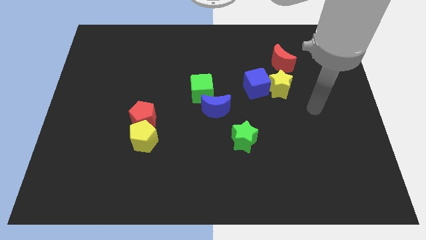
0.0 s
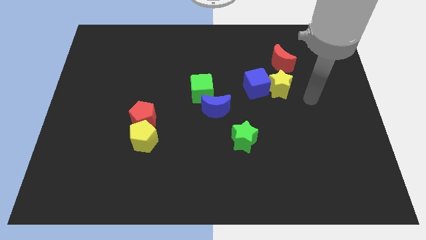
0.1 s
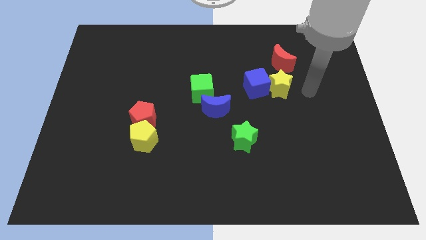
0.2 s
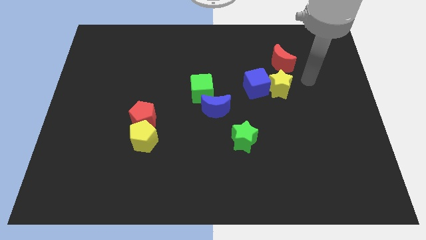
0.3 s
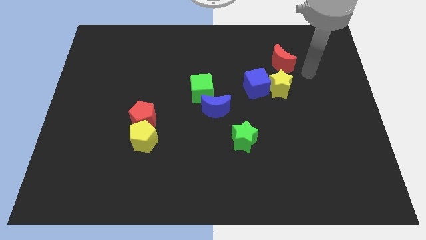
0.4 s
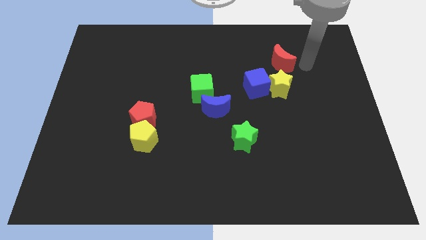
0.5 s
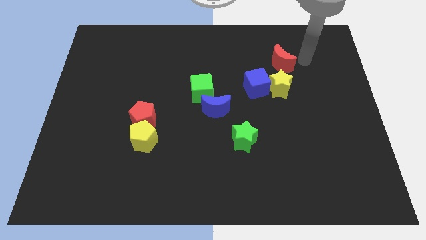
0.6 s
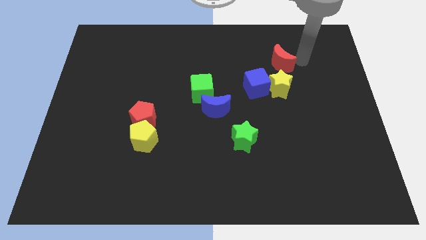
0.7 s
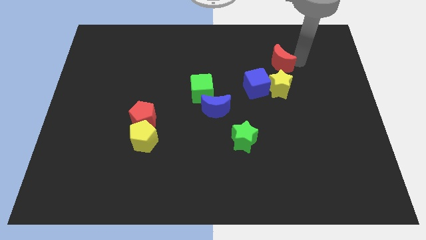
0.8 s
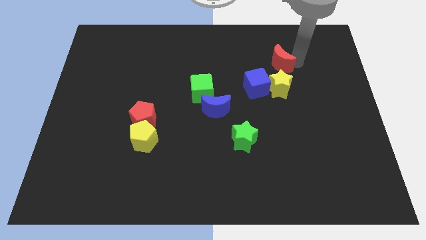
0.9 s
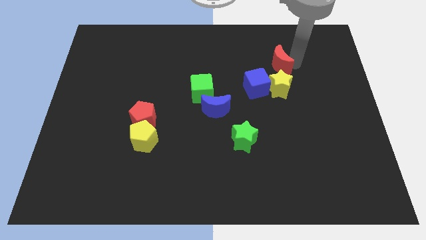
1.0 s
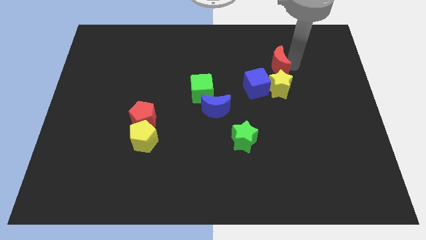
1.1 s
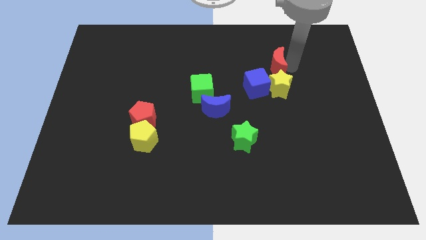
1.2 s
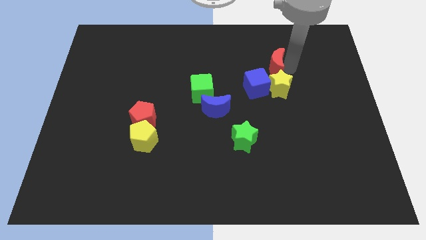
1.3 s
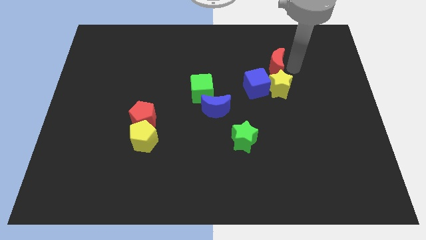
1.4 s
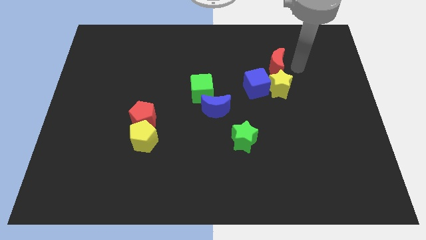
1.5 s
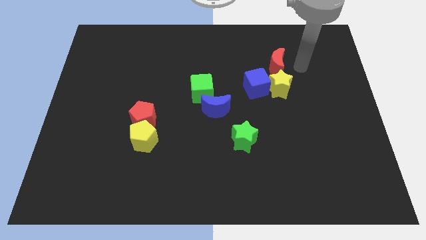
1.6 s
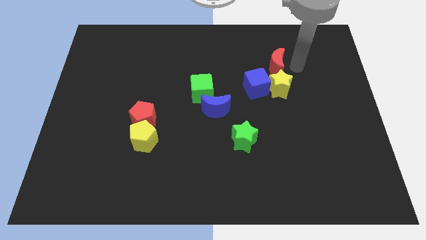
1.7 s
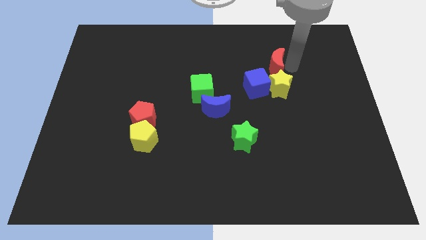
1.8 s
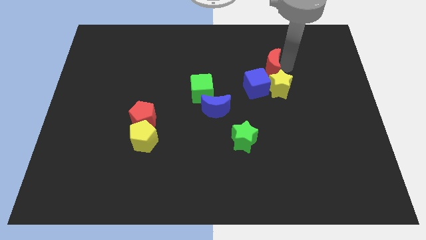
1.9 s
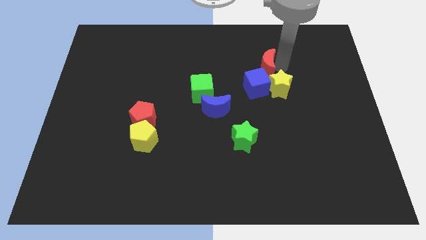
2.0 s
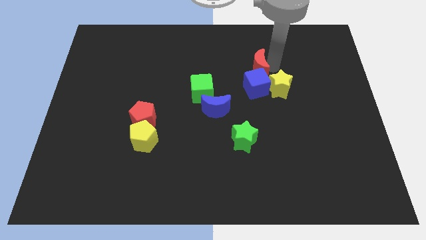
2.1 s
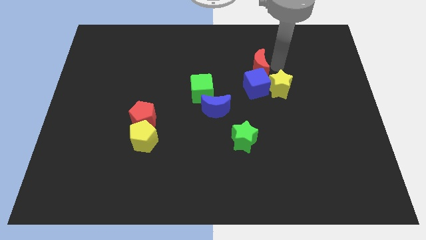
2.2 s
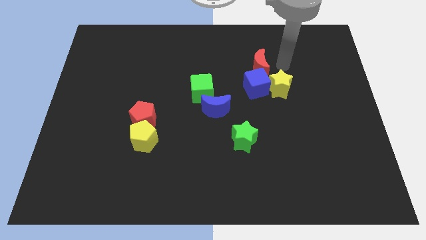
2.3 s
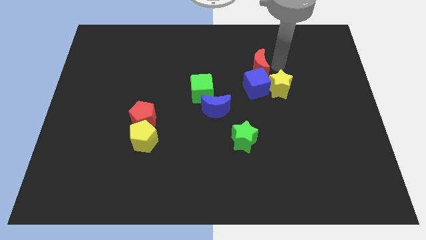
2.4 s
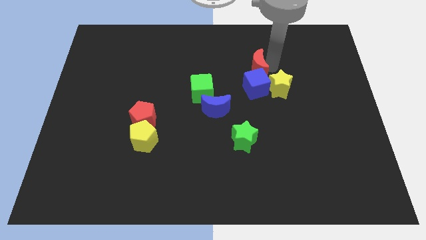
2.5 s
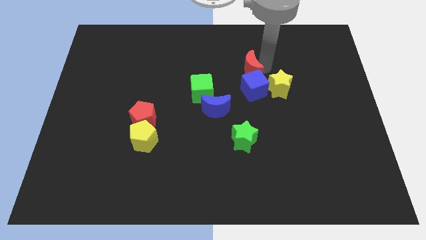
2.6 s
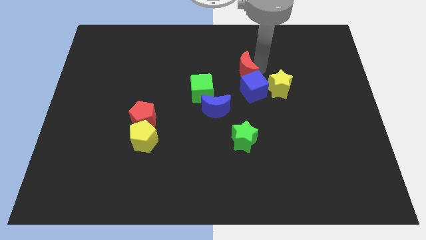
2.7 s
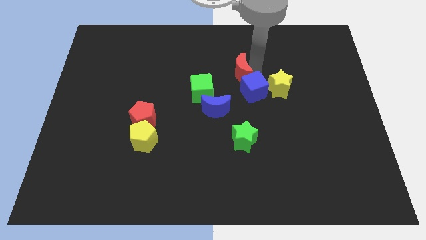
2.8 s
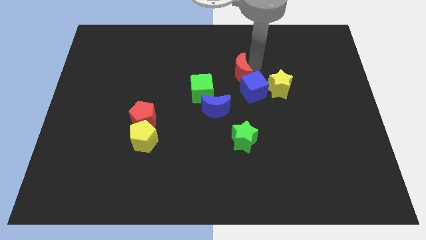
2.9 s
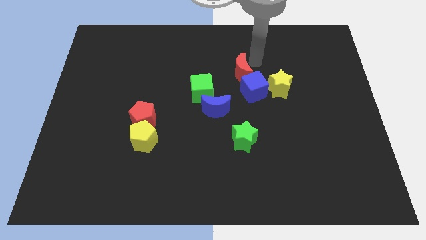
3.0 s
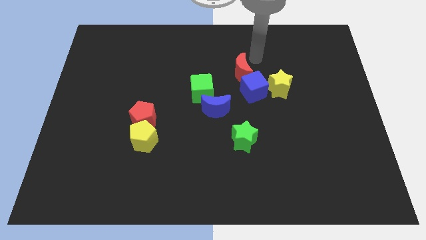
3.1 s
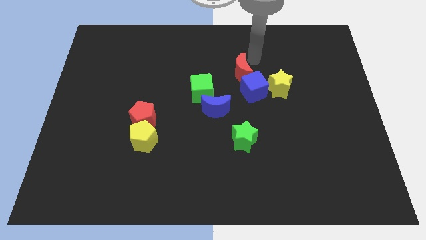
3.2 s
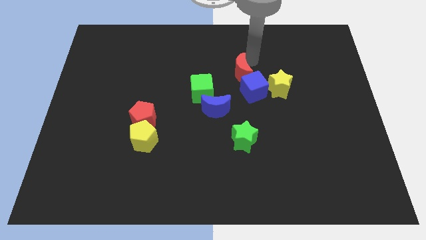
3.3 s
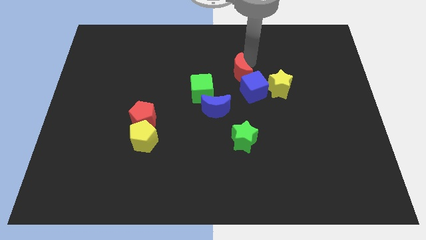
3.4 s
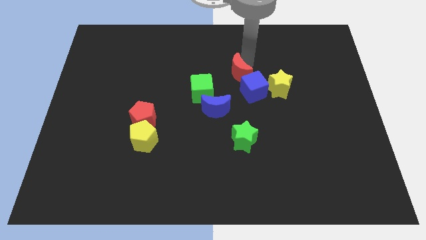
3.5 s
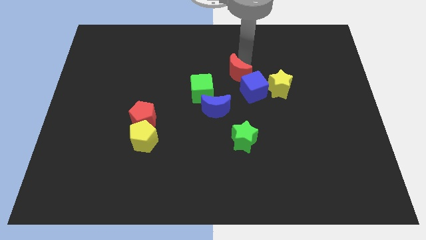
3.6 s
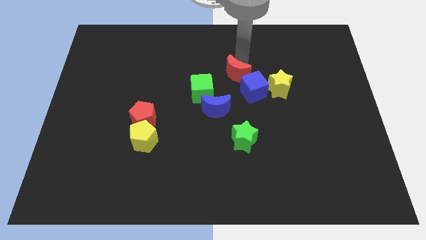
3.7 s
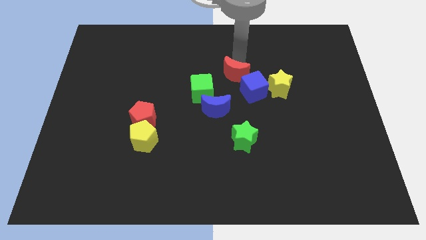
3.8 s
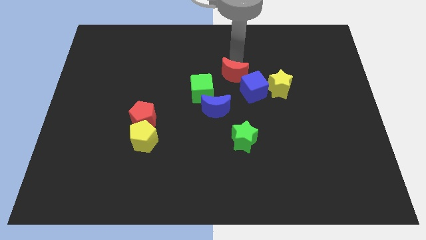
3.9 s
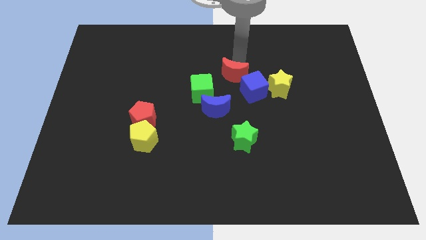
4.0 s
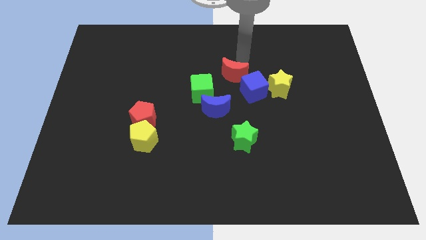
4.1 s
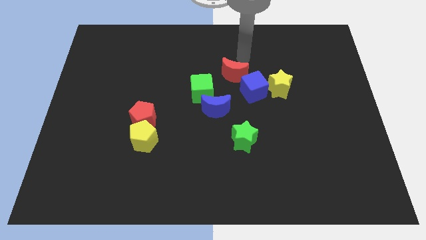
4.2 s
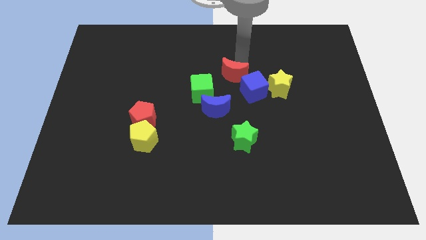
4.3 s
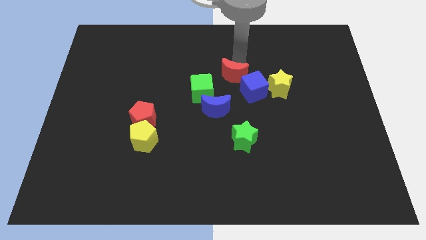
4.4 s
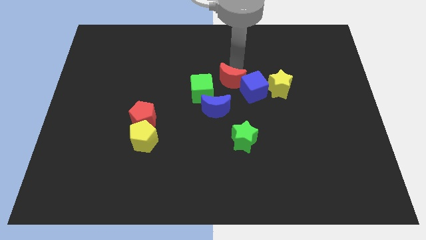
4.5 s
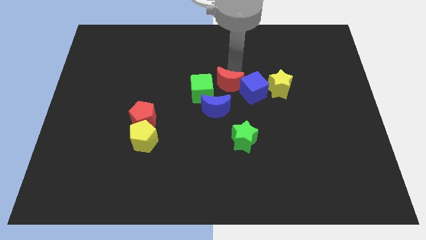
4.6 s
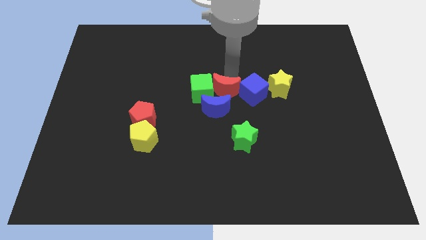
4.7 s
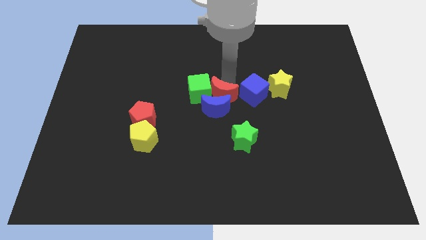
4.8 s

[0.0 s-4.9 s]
put the red moon close to the blue moon

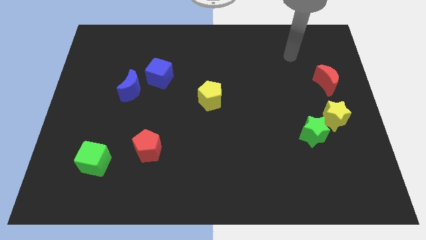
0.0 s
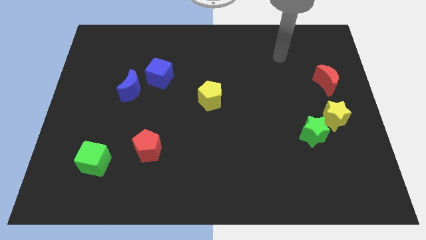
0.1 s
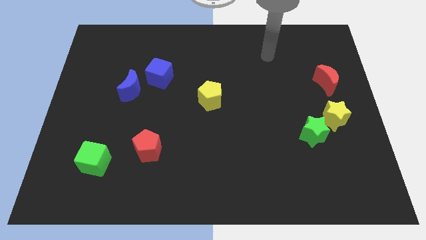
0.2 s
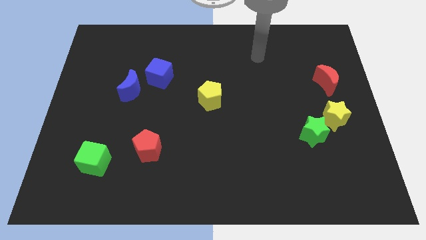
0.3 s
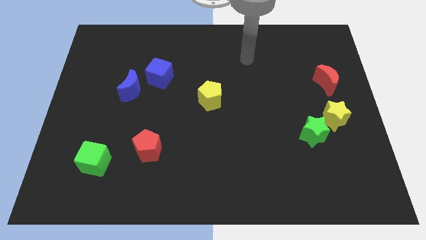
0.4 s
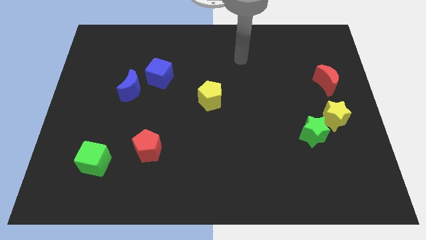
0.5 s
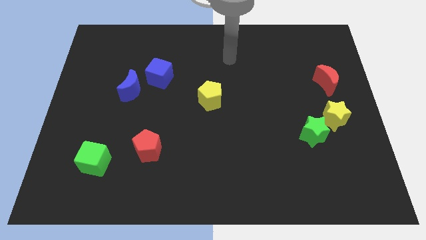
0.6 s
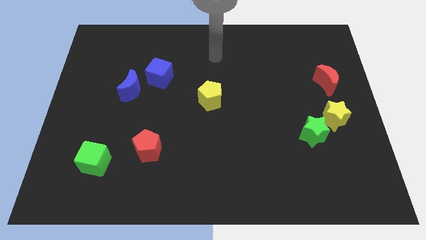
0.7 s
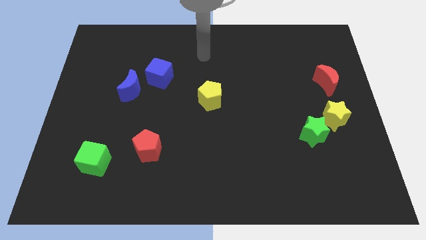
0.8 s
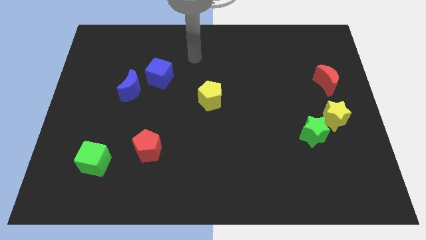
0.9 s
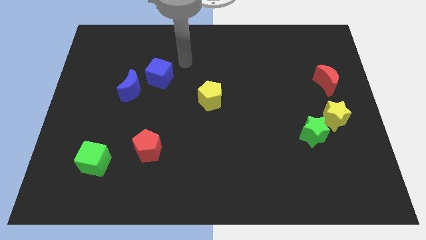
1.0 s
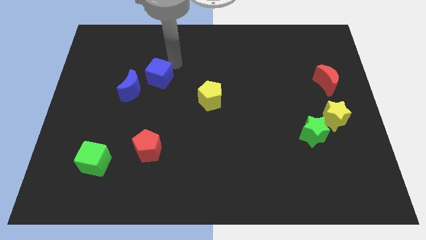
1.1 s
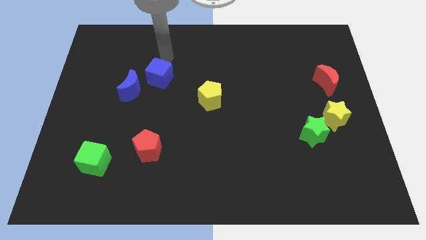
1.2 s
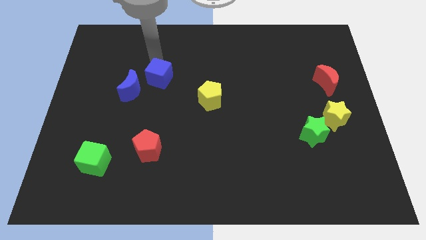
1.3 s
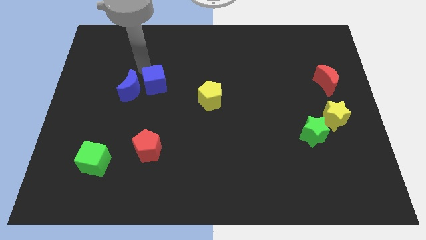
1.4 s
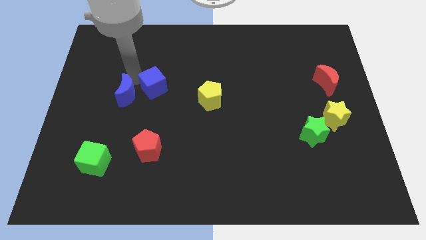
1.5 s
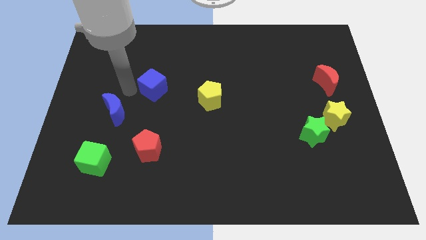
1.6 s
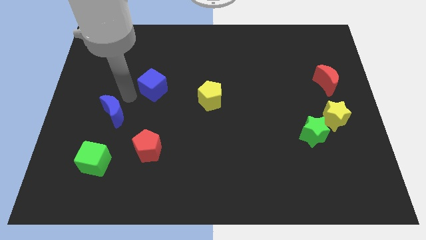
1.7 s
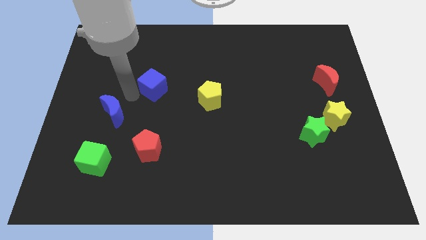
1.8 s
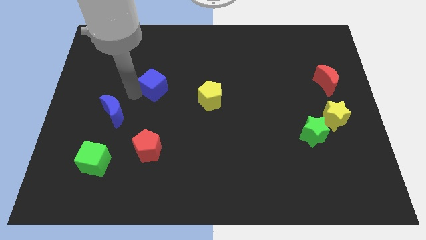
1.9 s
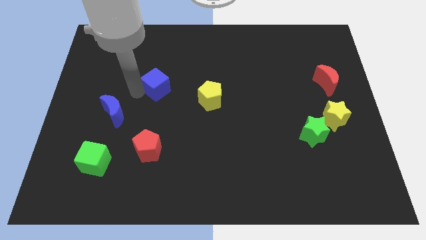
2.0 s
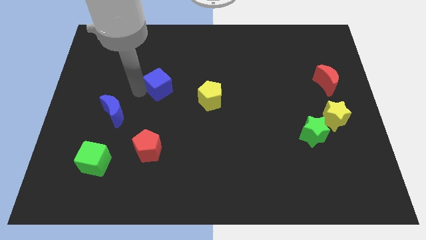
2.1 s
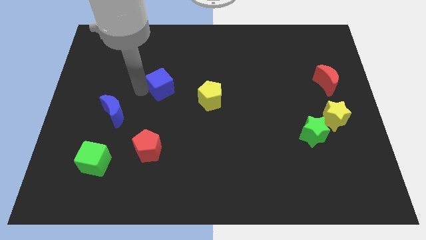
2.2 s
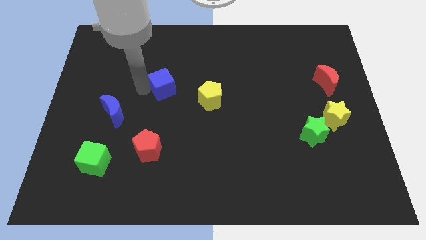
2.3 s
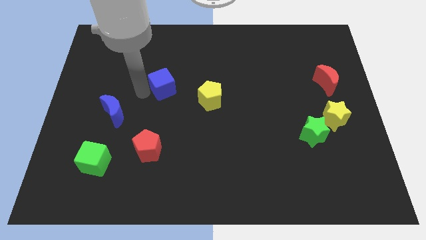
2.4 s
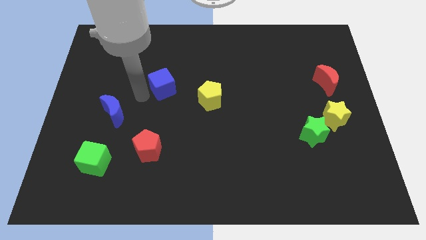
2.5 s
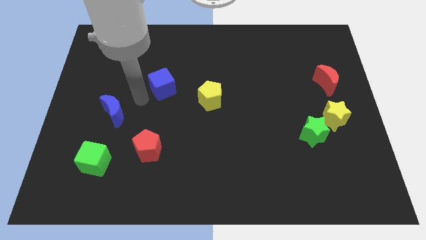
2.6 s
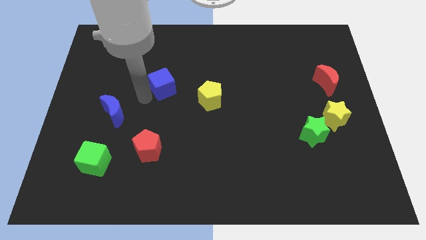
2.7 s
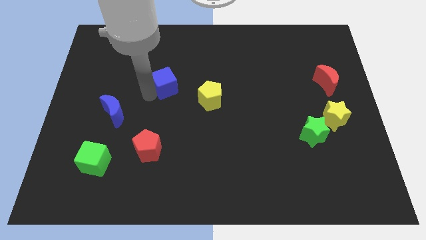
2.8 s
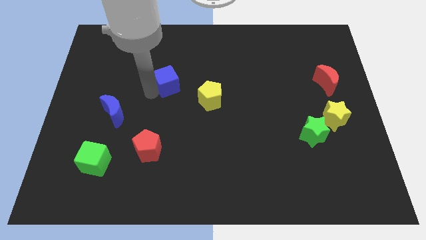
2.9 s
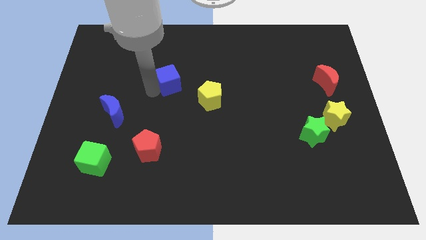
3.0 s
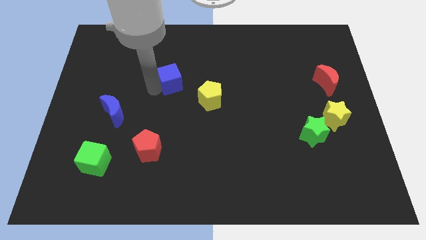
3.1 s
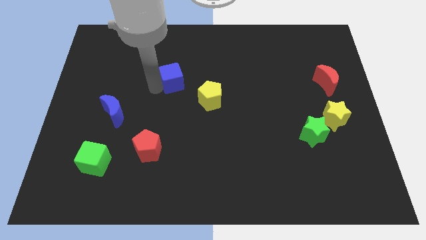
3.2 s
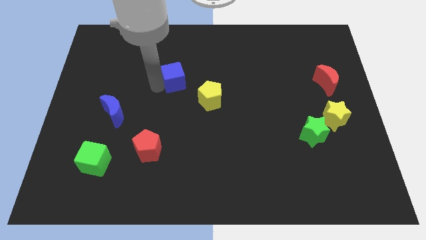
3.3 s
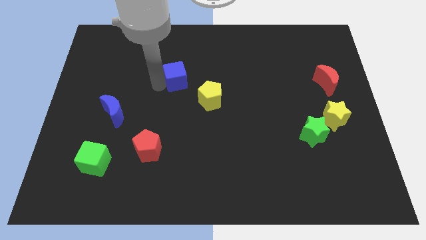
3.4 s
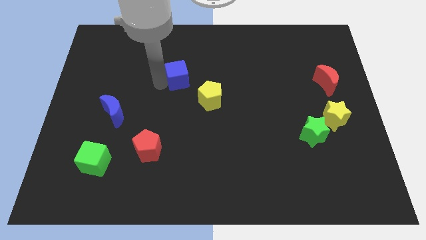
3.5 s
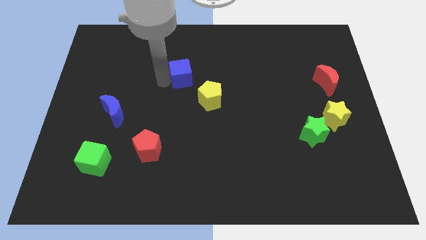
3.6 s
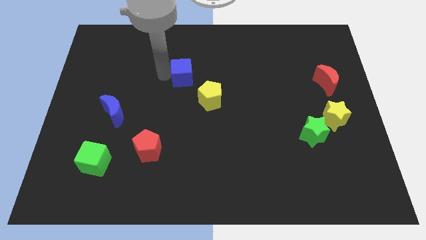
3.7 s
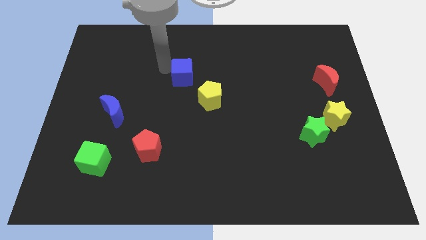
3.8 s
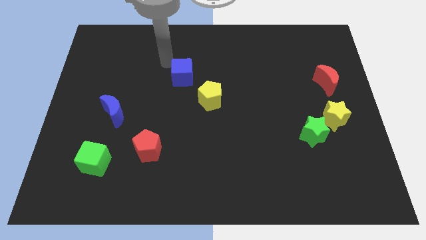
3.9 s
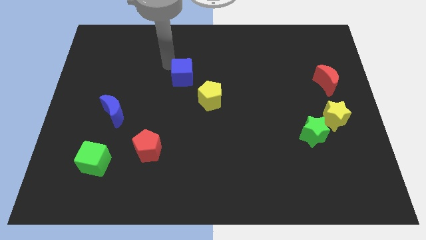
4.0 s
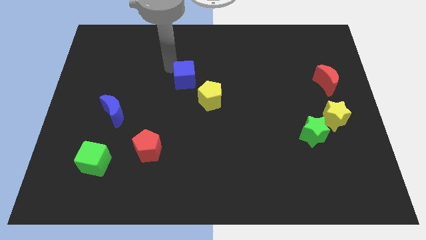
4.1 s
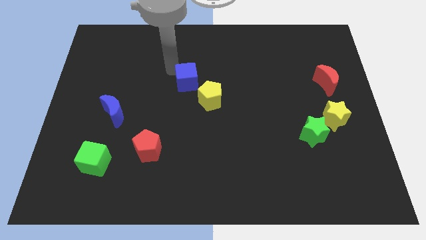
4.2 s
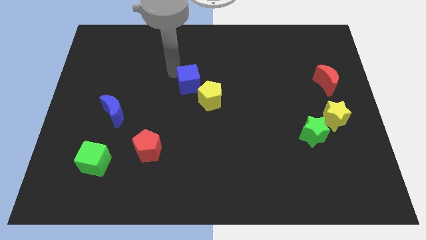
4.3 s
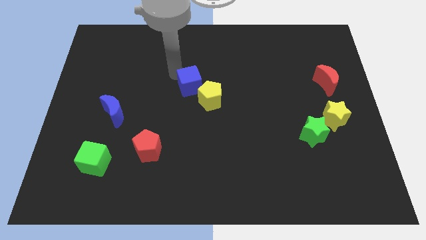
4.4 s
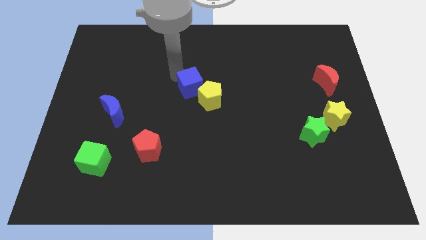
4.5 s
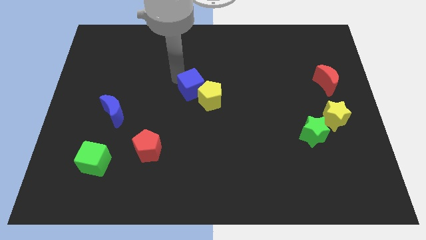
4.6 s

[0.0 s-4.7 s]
put the blue cube close to the yellow pentagon
